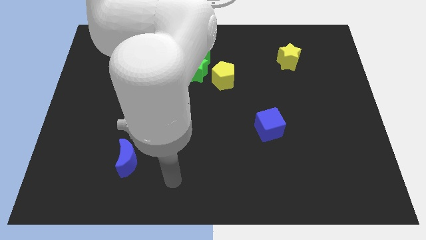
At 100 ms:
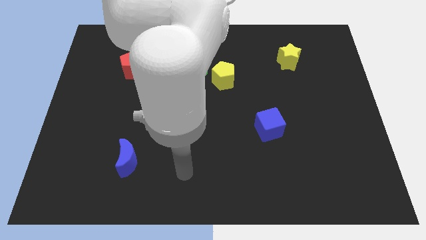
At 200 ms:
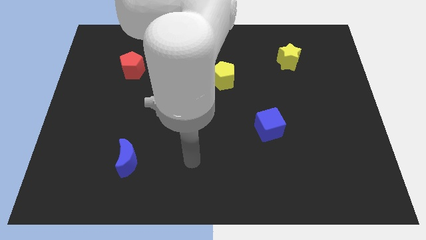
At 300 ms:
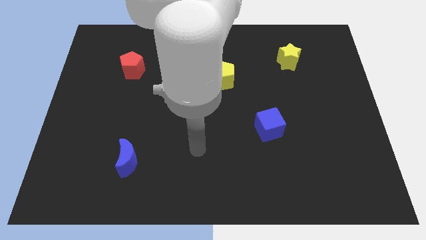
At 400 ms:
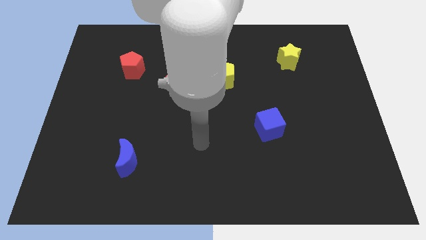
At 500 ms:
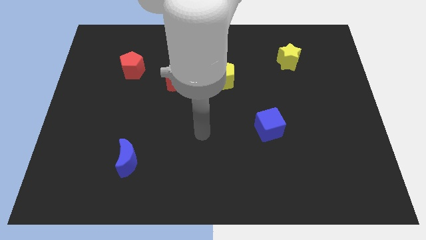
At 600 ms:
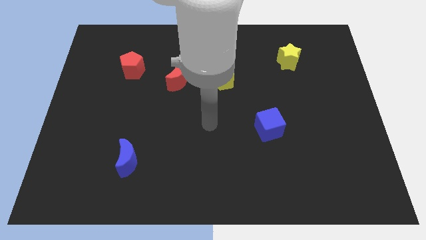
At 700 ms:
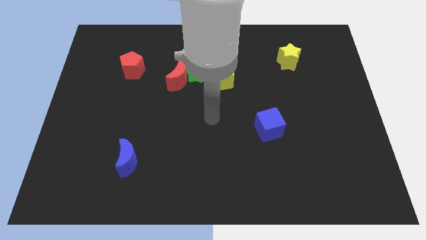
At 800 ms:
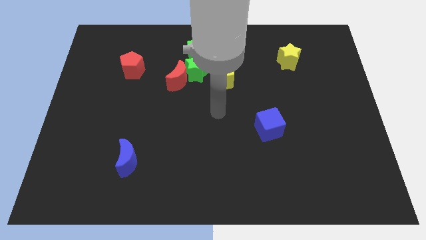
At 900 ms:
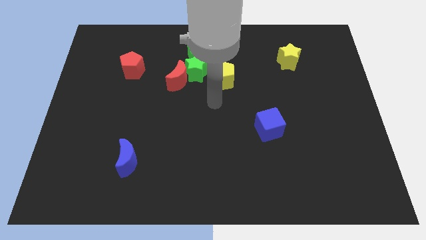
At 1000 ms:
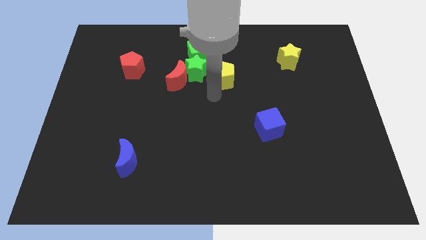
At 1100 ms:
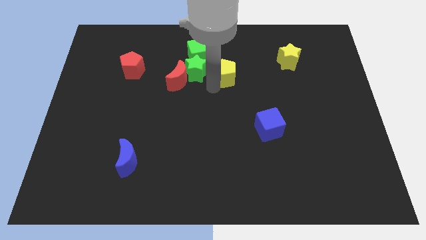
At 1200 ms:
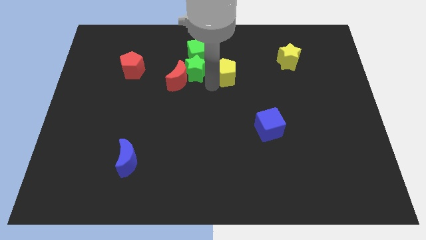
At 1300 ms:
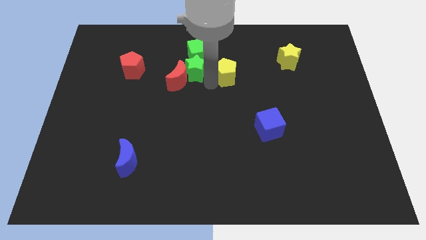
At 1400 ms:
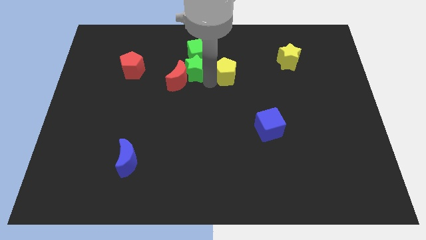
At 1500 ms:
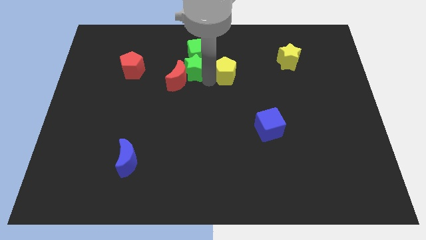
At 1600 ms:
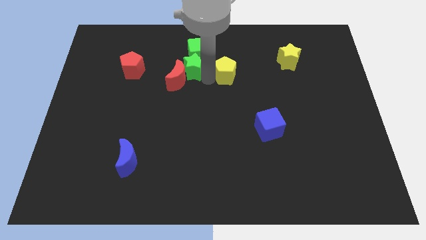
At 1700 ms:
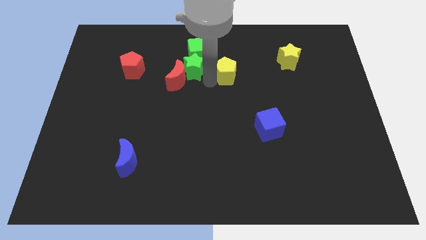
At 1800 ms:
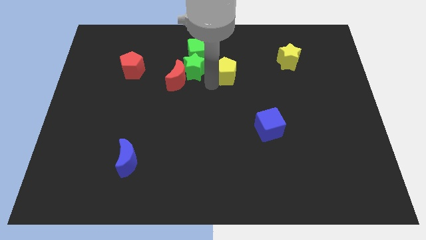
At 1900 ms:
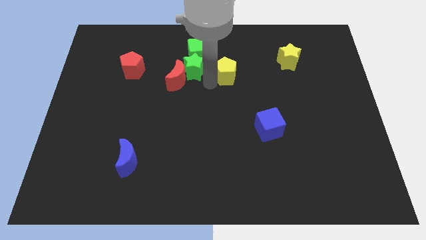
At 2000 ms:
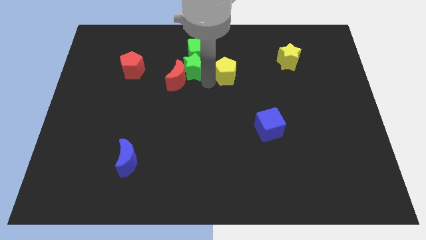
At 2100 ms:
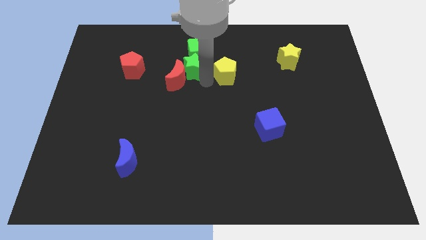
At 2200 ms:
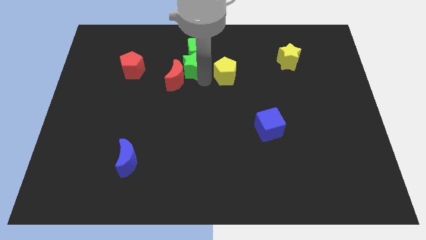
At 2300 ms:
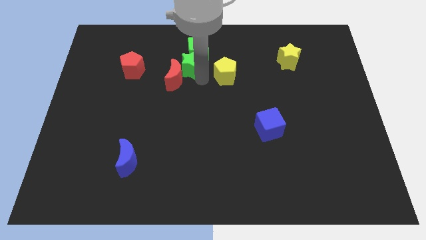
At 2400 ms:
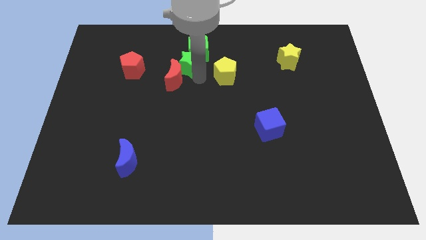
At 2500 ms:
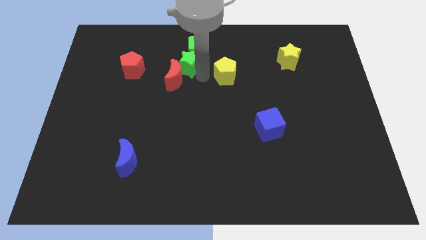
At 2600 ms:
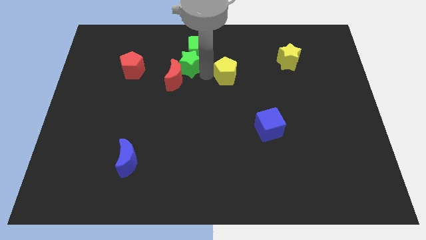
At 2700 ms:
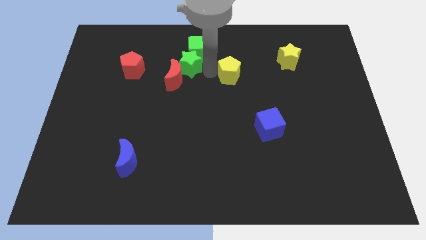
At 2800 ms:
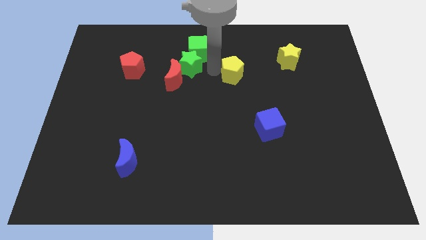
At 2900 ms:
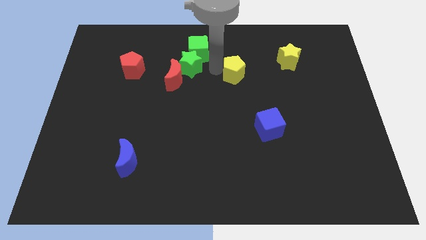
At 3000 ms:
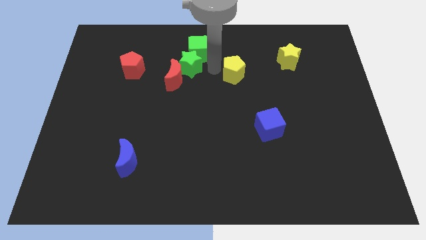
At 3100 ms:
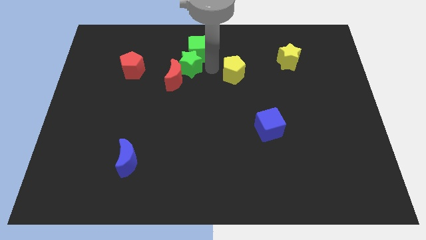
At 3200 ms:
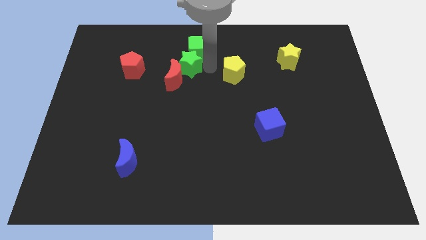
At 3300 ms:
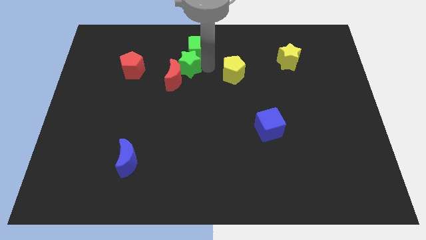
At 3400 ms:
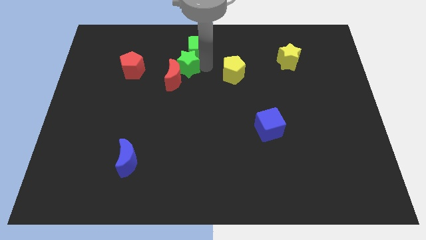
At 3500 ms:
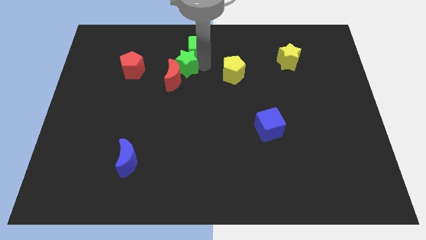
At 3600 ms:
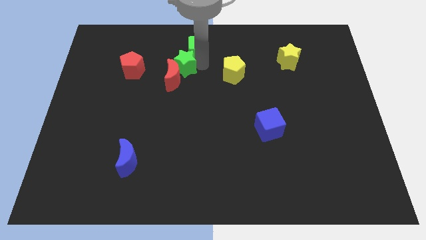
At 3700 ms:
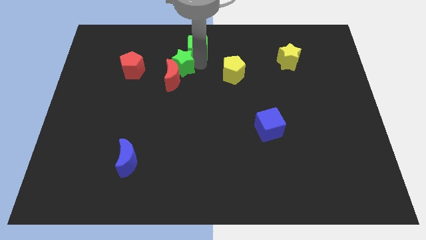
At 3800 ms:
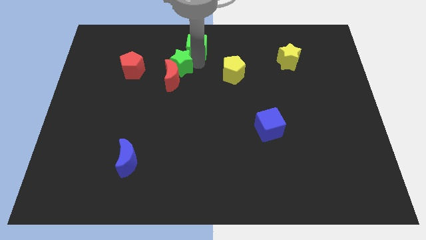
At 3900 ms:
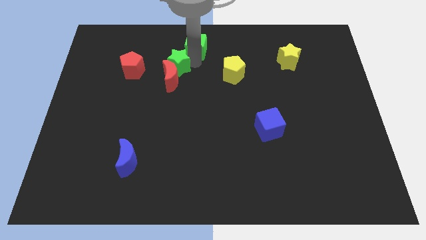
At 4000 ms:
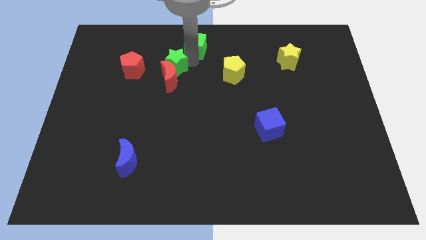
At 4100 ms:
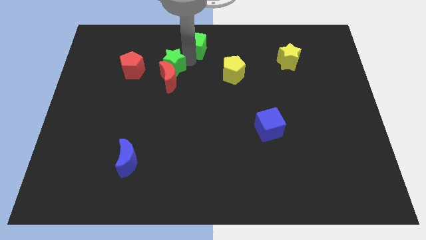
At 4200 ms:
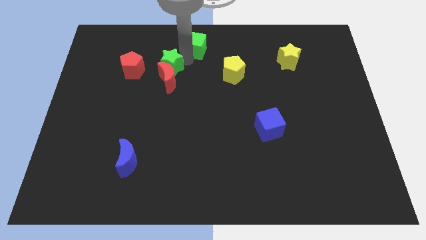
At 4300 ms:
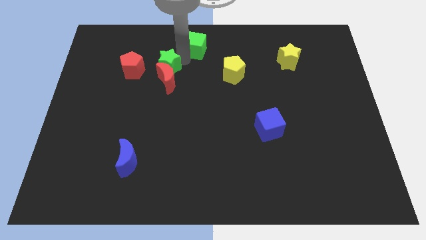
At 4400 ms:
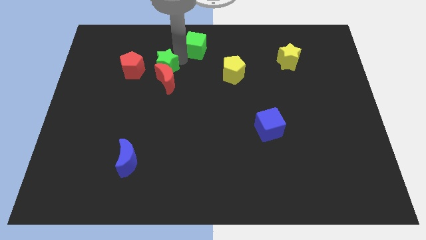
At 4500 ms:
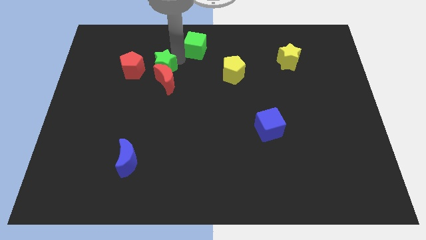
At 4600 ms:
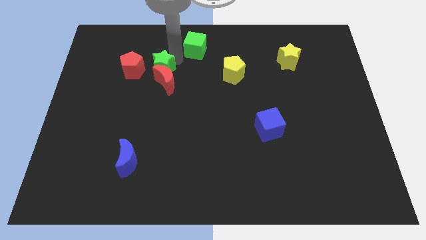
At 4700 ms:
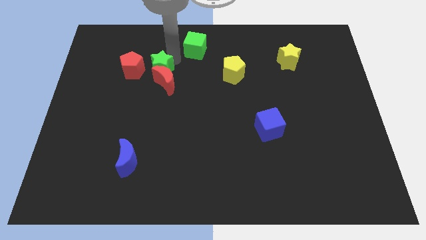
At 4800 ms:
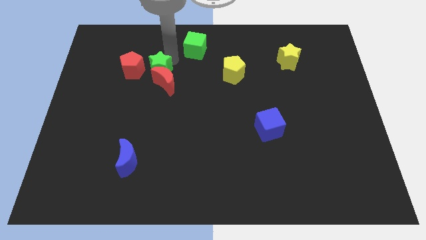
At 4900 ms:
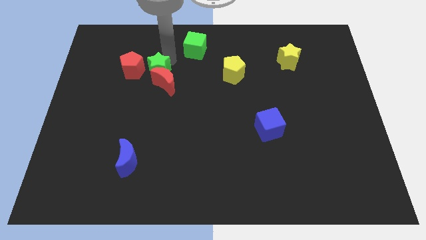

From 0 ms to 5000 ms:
separate the green star from the clump

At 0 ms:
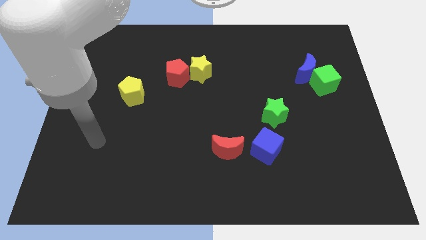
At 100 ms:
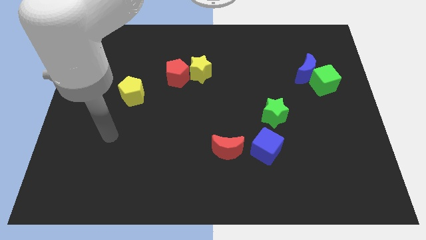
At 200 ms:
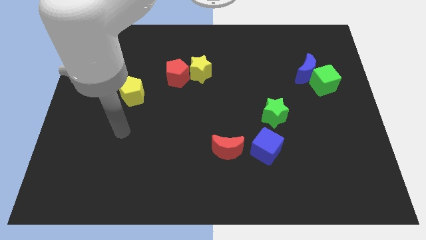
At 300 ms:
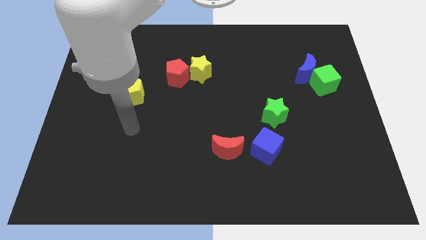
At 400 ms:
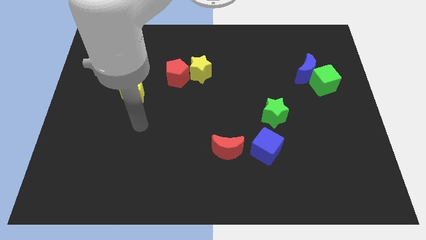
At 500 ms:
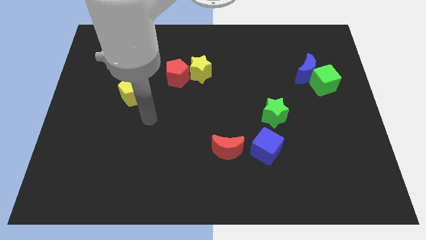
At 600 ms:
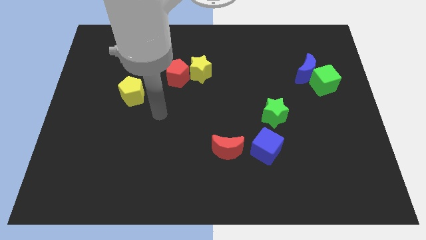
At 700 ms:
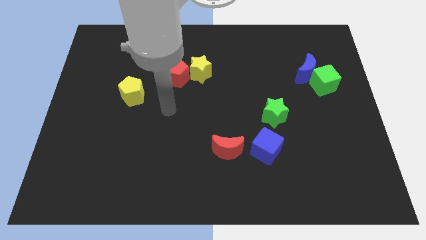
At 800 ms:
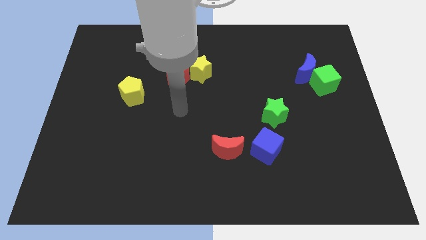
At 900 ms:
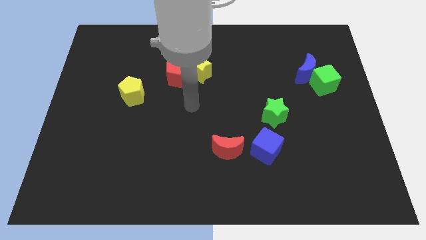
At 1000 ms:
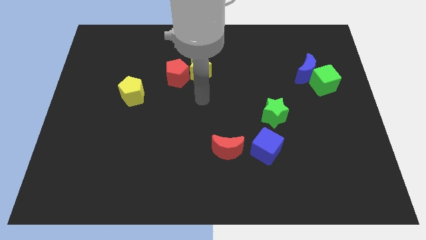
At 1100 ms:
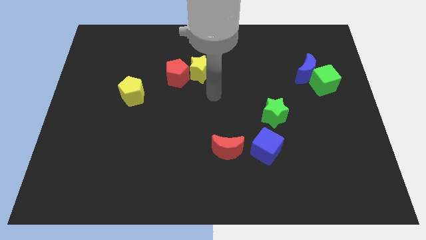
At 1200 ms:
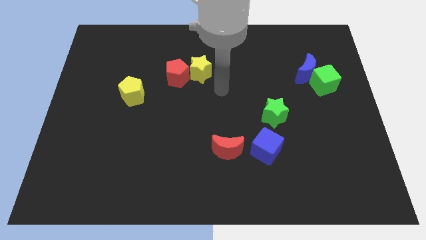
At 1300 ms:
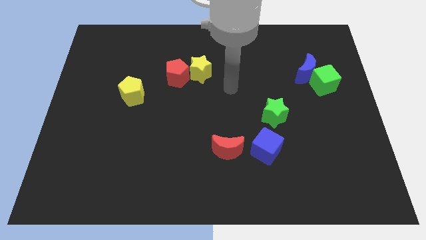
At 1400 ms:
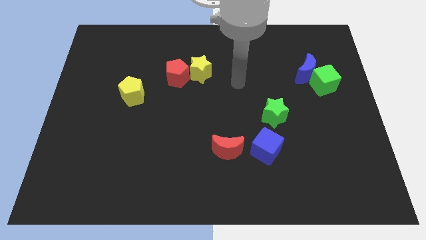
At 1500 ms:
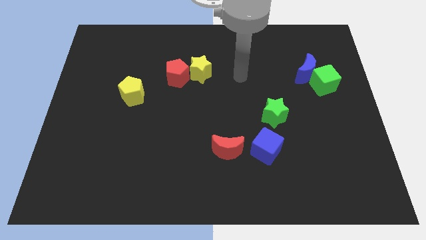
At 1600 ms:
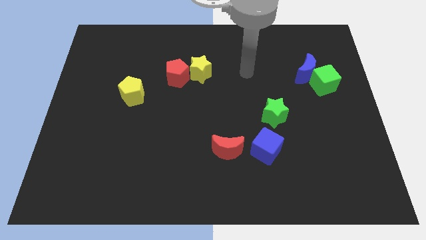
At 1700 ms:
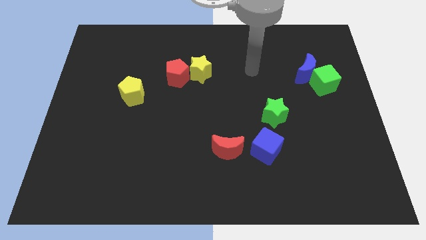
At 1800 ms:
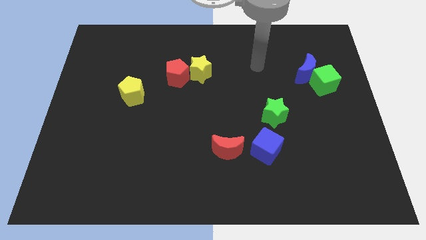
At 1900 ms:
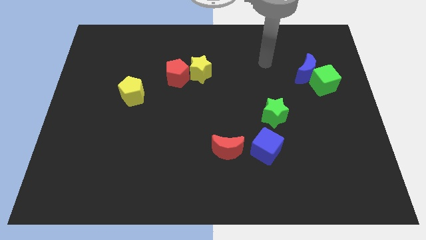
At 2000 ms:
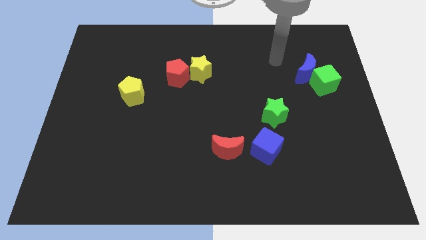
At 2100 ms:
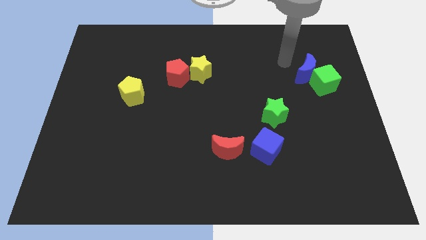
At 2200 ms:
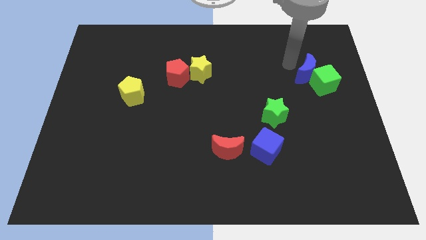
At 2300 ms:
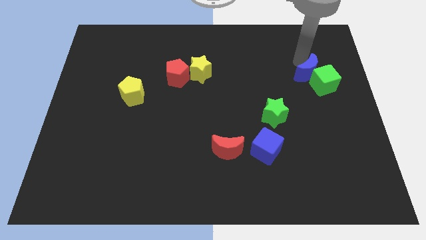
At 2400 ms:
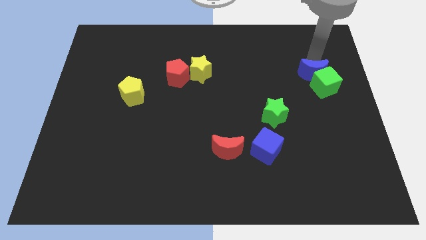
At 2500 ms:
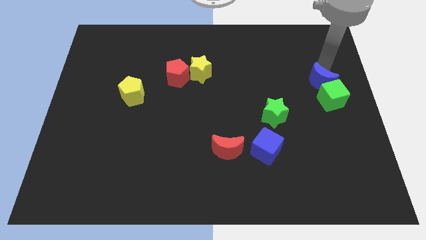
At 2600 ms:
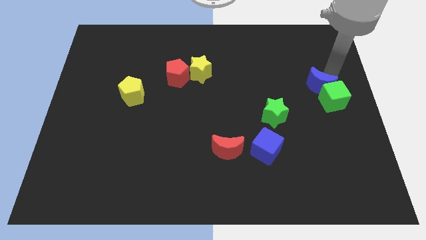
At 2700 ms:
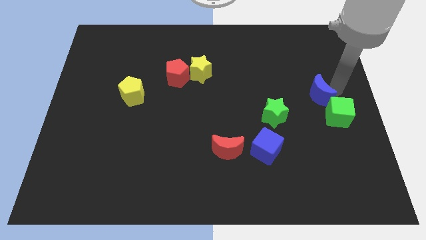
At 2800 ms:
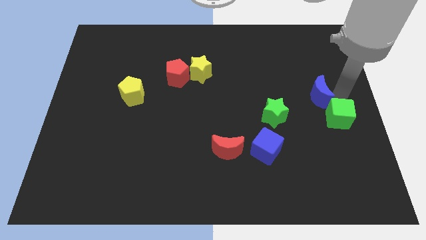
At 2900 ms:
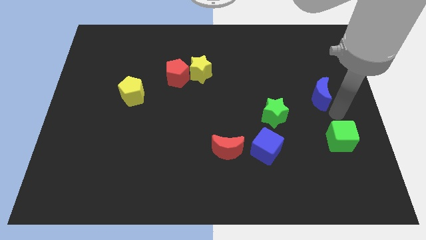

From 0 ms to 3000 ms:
pull the blue moon apart from the green cube

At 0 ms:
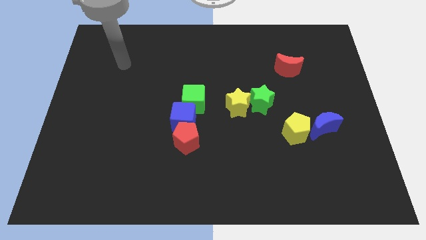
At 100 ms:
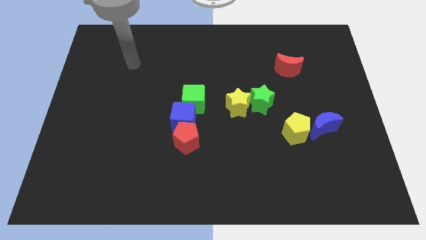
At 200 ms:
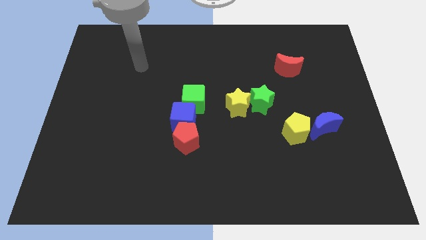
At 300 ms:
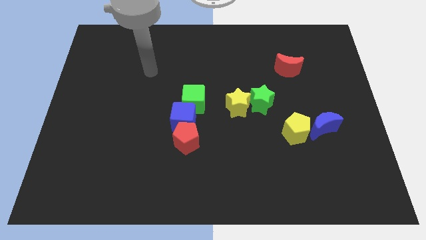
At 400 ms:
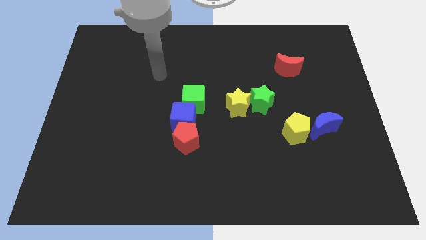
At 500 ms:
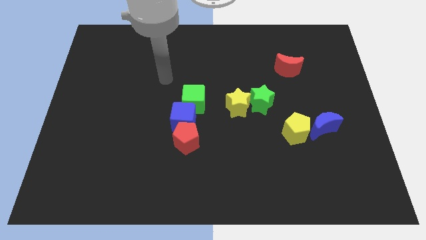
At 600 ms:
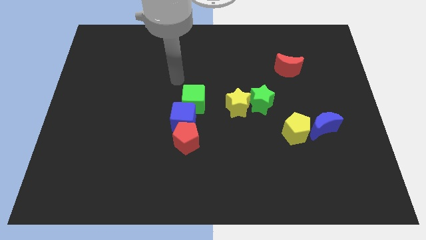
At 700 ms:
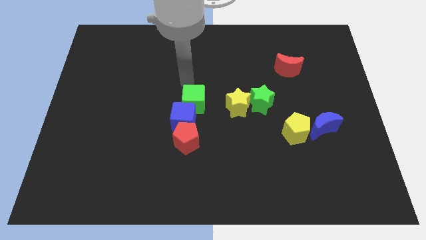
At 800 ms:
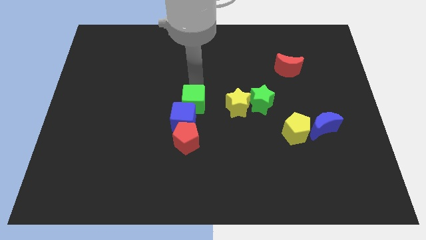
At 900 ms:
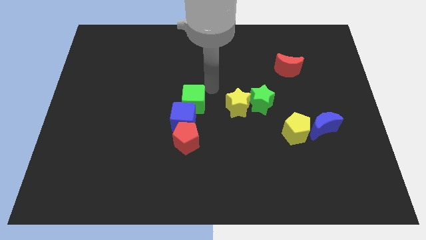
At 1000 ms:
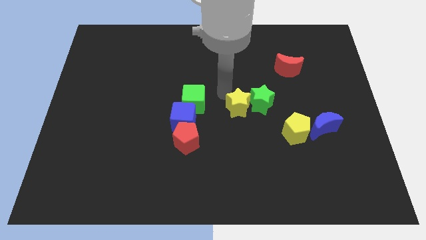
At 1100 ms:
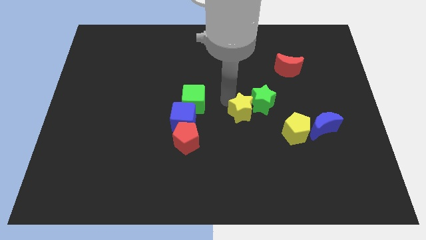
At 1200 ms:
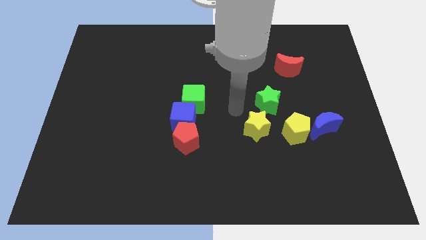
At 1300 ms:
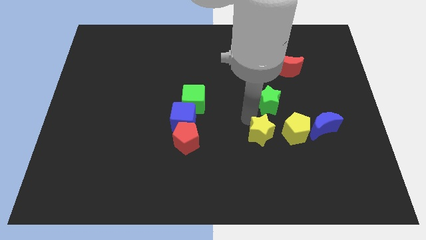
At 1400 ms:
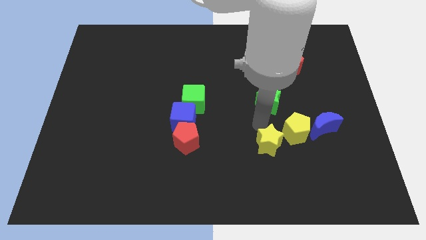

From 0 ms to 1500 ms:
pull the green star apart from the yellow star
